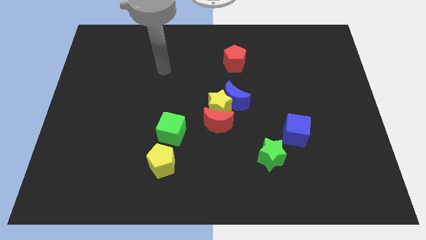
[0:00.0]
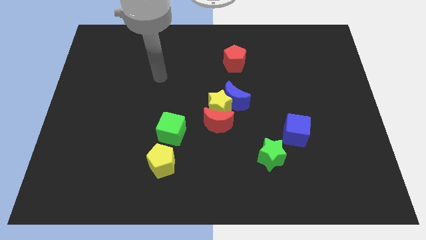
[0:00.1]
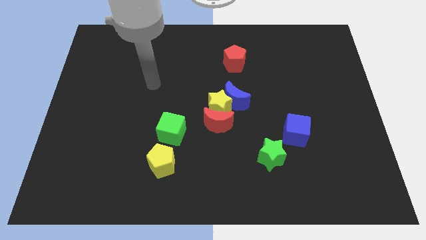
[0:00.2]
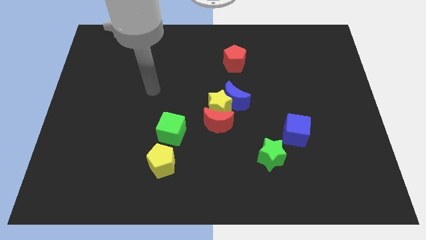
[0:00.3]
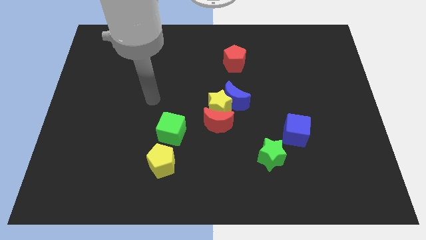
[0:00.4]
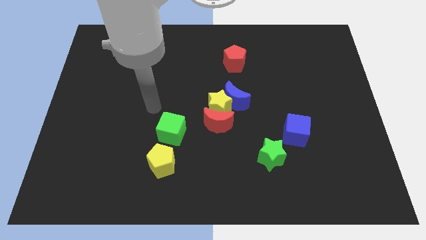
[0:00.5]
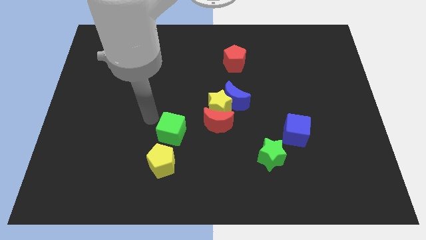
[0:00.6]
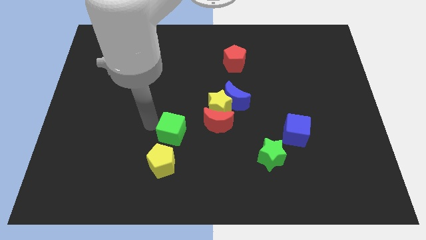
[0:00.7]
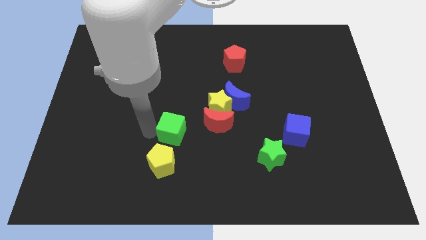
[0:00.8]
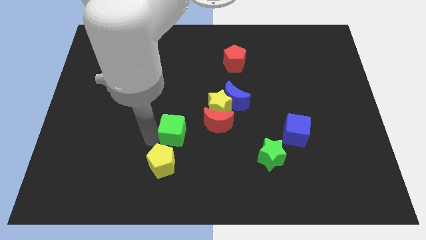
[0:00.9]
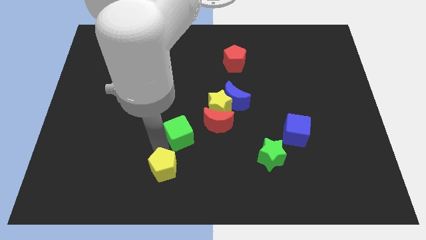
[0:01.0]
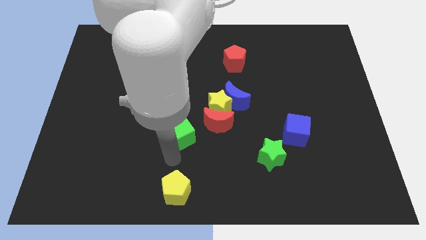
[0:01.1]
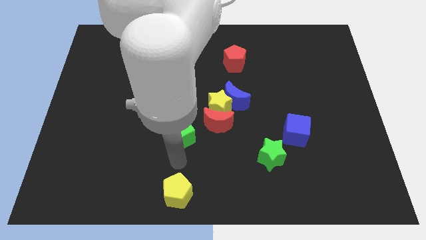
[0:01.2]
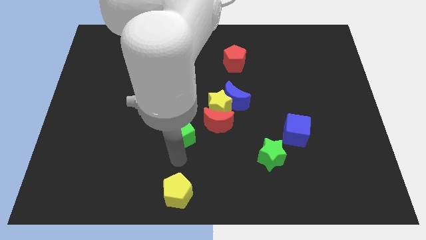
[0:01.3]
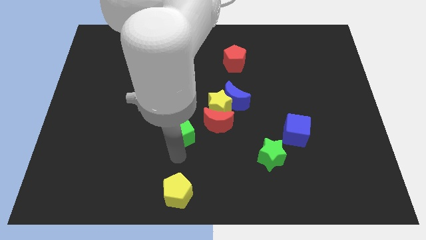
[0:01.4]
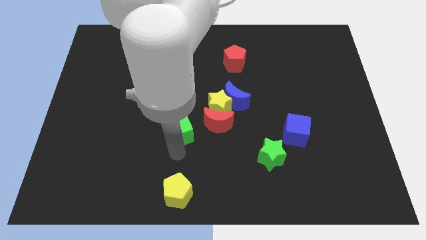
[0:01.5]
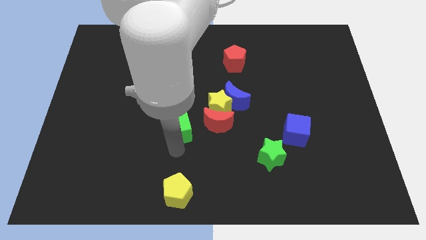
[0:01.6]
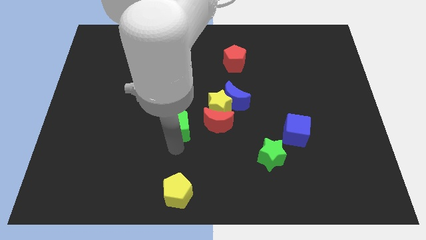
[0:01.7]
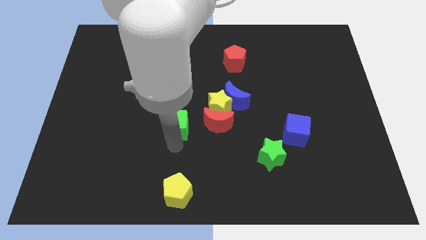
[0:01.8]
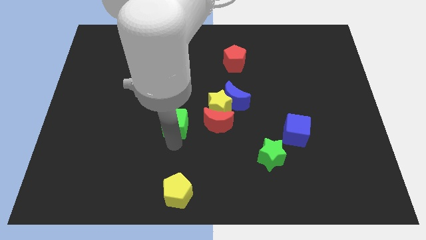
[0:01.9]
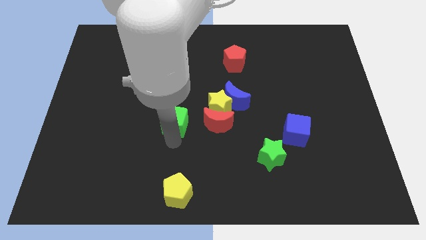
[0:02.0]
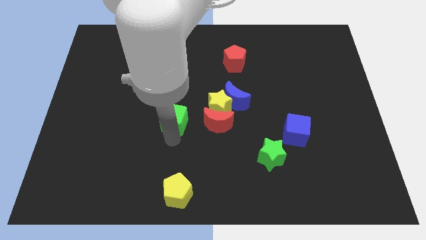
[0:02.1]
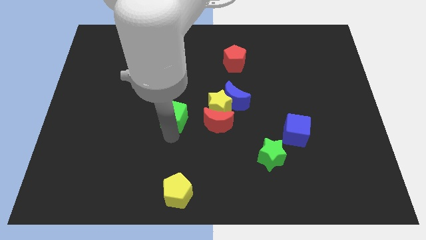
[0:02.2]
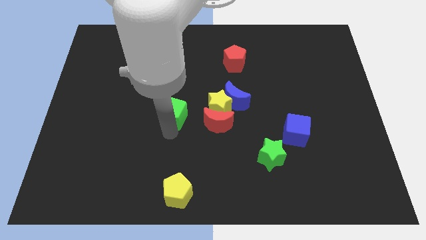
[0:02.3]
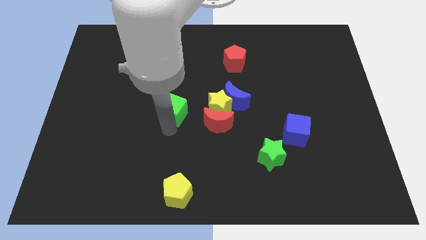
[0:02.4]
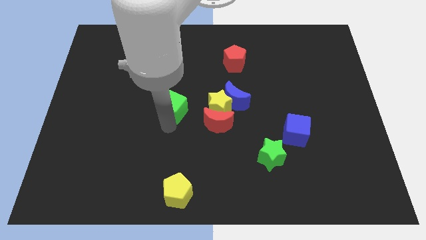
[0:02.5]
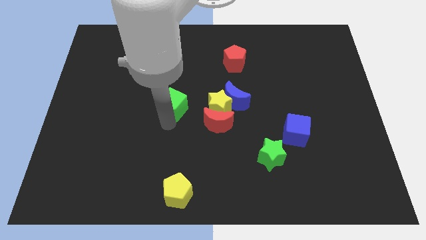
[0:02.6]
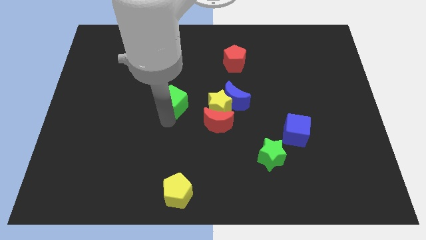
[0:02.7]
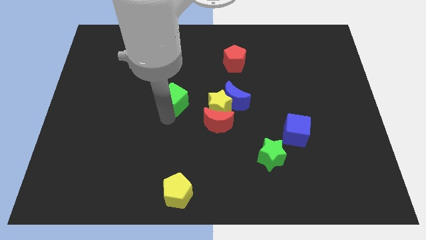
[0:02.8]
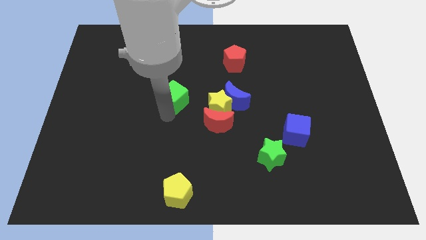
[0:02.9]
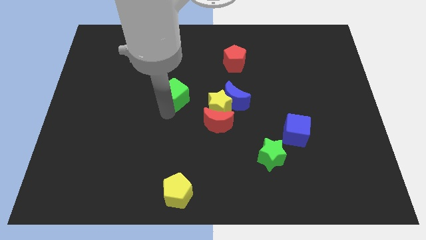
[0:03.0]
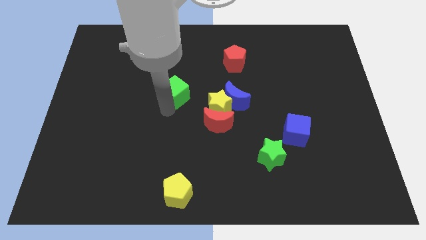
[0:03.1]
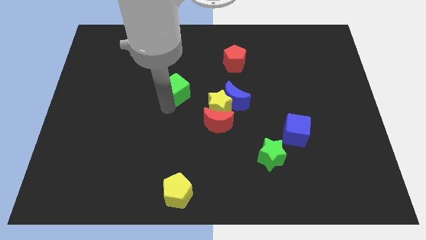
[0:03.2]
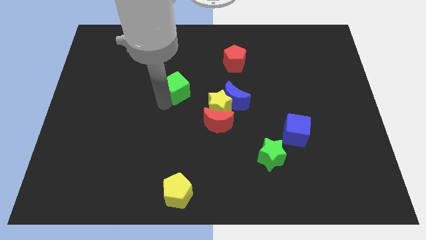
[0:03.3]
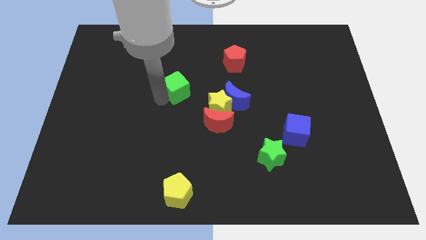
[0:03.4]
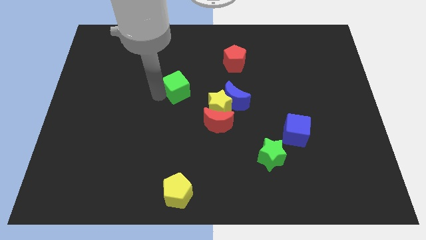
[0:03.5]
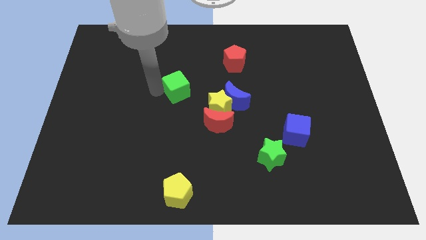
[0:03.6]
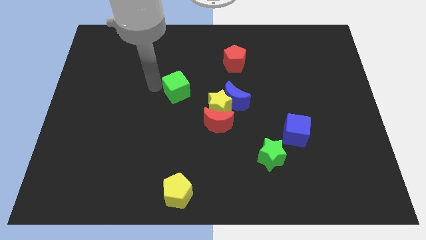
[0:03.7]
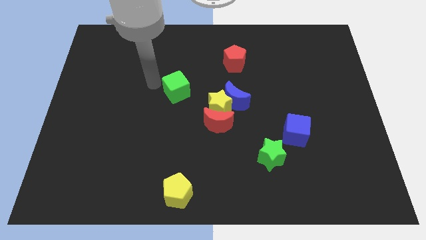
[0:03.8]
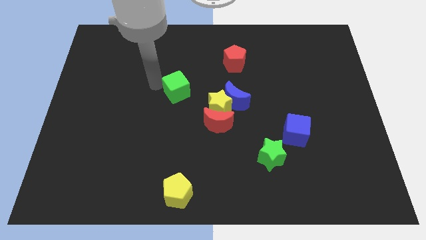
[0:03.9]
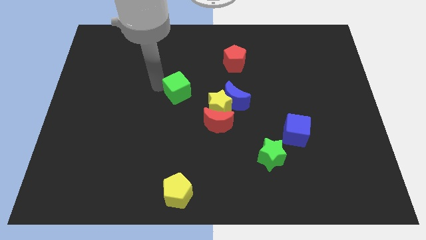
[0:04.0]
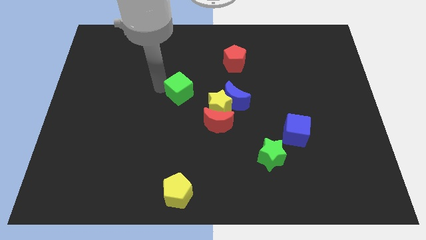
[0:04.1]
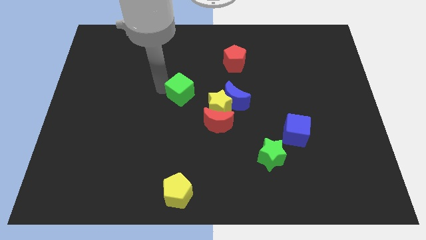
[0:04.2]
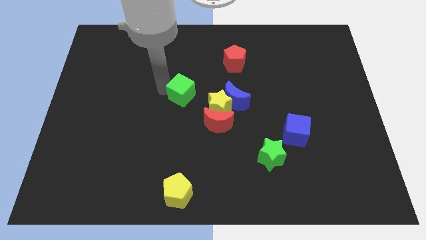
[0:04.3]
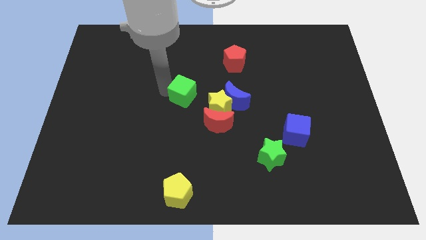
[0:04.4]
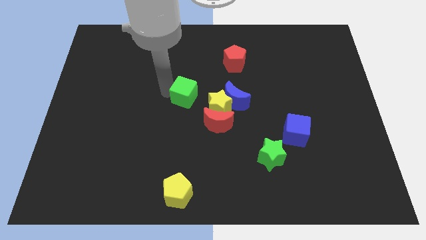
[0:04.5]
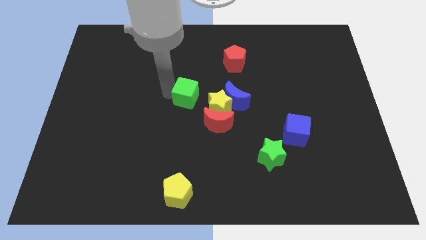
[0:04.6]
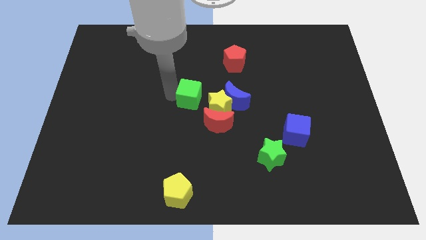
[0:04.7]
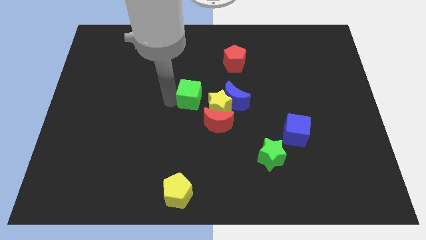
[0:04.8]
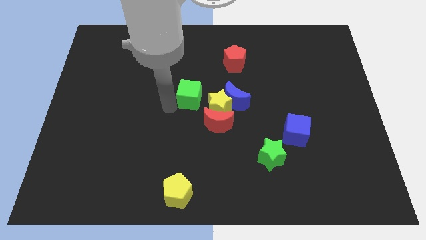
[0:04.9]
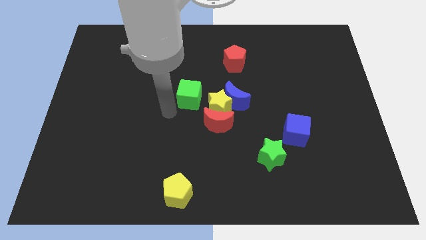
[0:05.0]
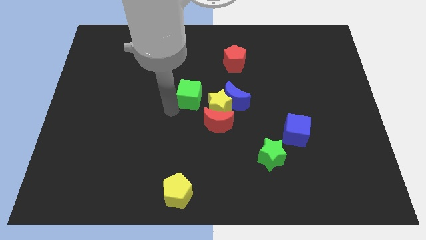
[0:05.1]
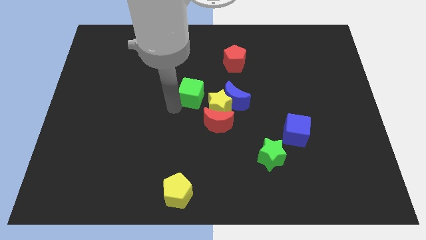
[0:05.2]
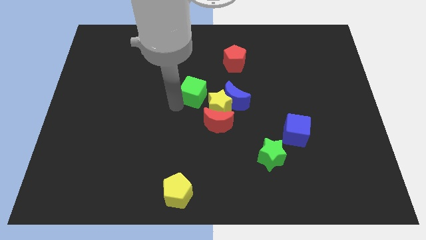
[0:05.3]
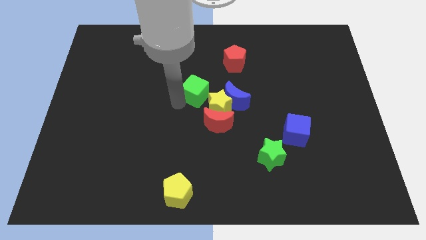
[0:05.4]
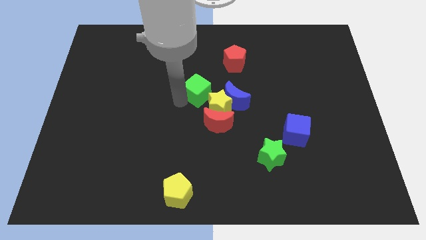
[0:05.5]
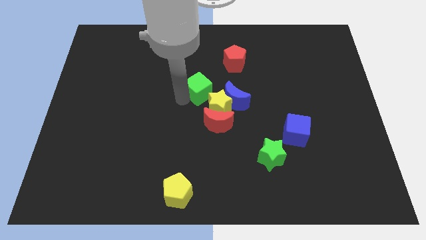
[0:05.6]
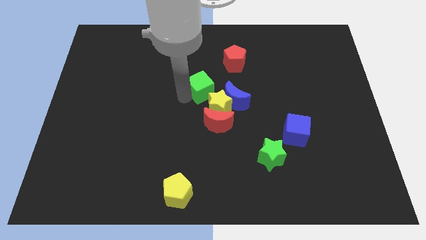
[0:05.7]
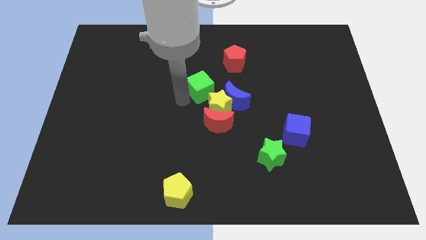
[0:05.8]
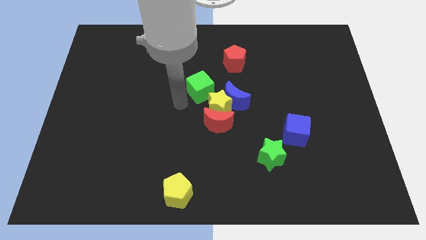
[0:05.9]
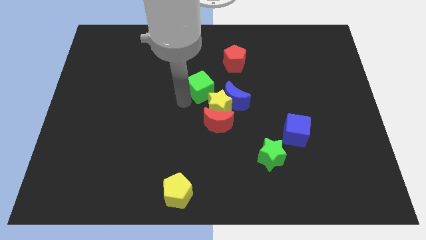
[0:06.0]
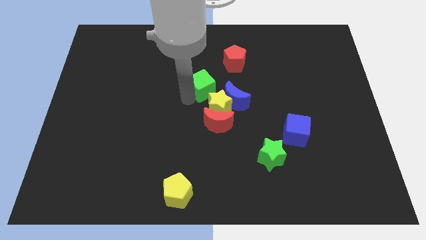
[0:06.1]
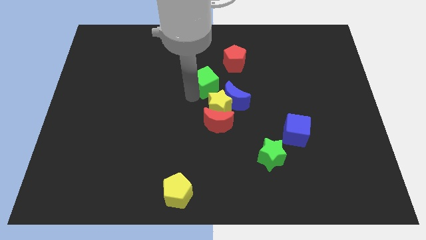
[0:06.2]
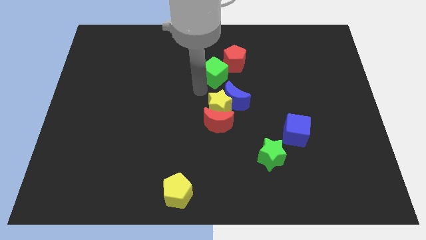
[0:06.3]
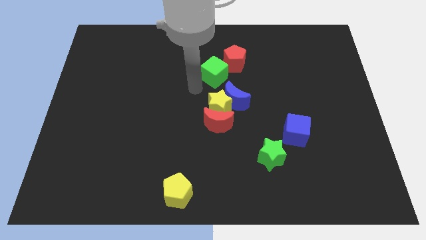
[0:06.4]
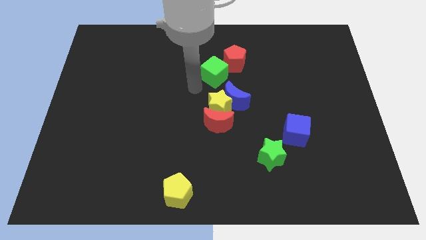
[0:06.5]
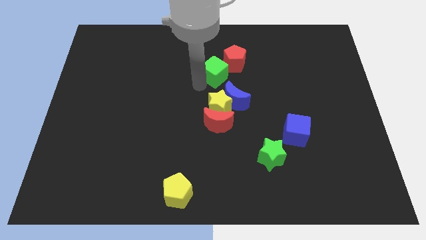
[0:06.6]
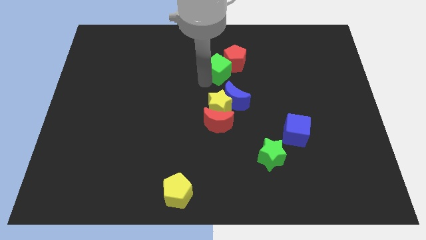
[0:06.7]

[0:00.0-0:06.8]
put the green cube next to the red pentagon
